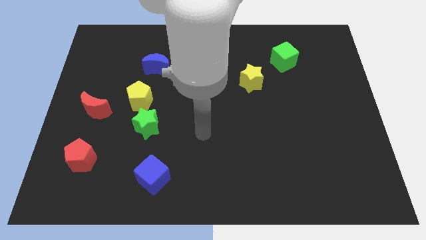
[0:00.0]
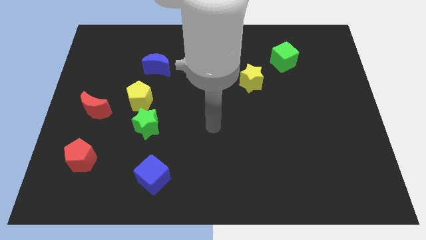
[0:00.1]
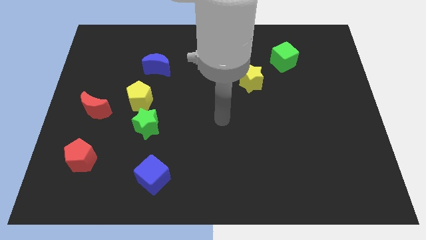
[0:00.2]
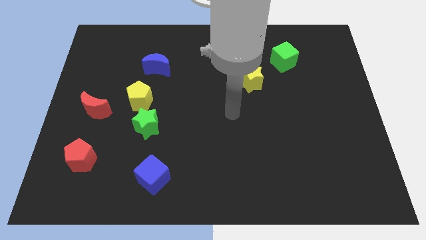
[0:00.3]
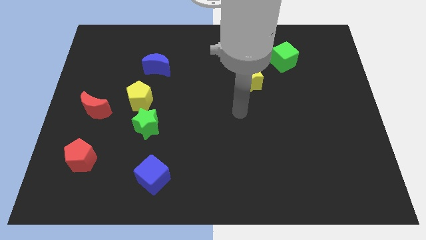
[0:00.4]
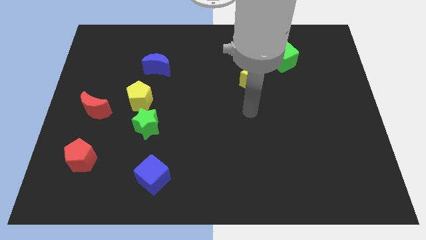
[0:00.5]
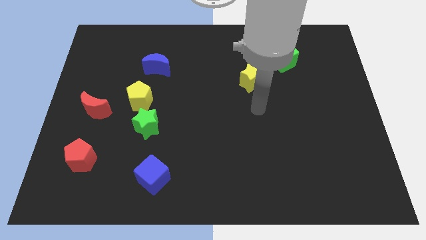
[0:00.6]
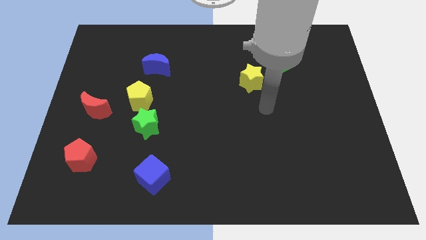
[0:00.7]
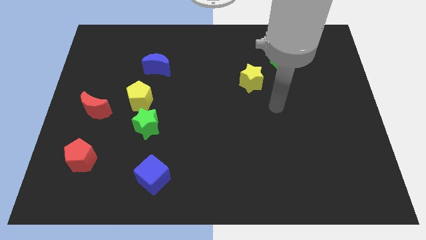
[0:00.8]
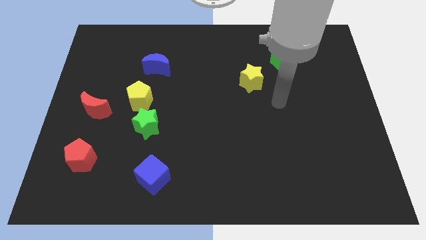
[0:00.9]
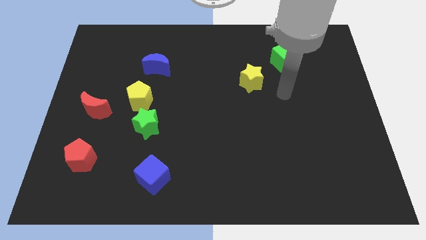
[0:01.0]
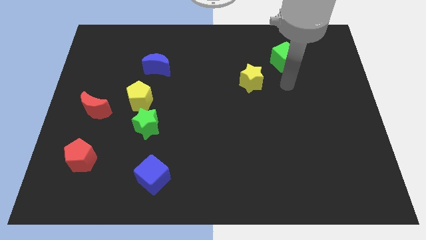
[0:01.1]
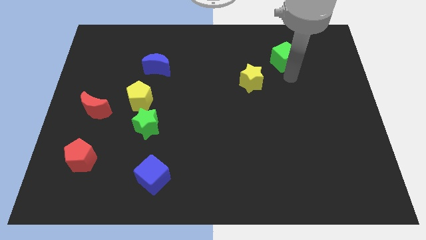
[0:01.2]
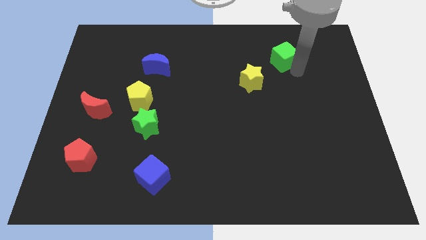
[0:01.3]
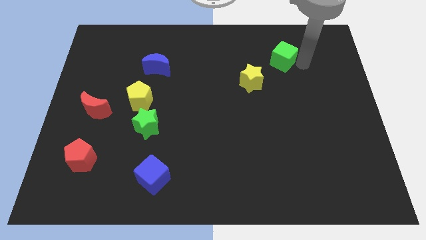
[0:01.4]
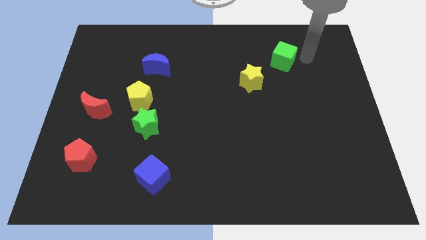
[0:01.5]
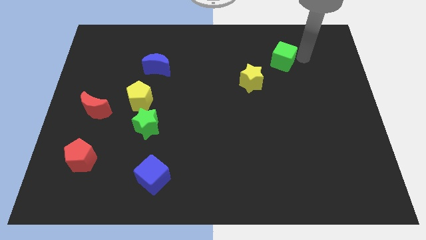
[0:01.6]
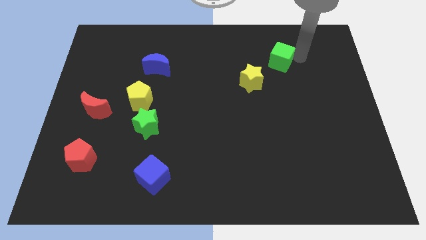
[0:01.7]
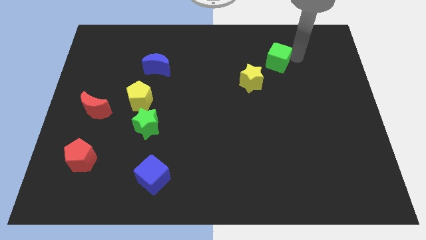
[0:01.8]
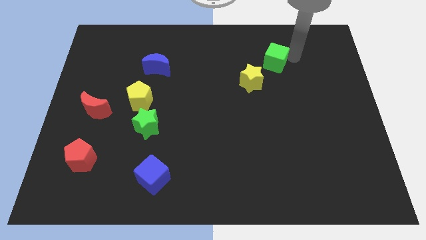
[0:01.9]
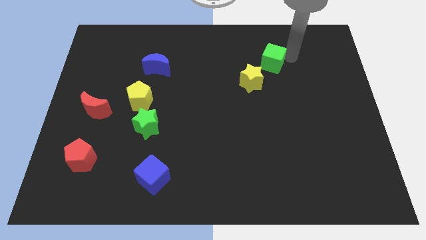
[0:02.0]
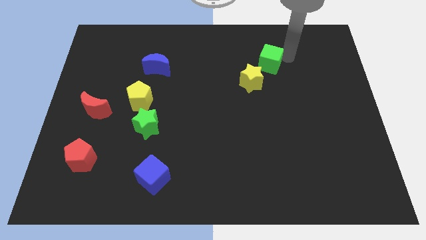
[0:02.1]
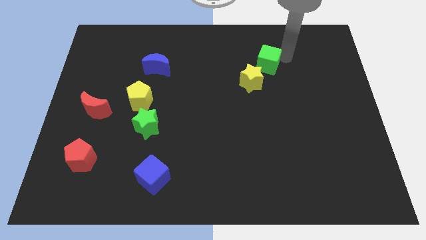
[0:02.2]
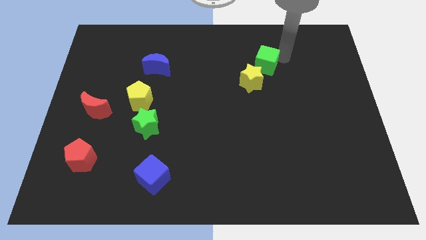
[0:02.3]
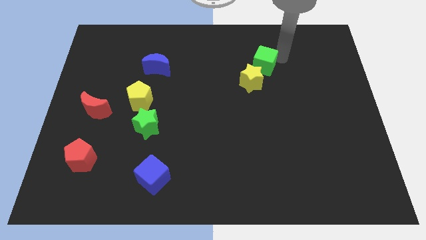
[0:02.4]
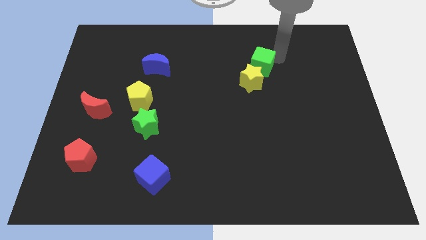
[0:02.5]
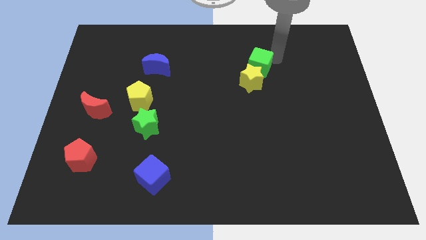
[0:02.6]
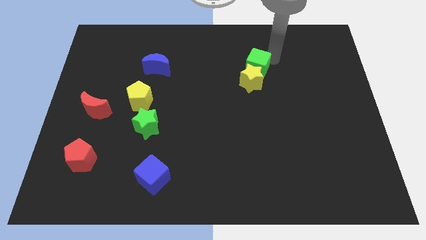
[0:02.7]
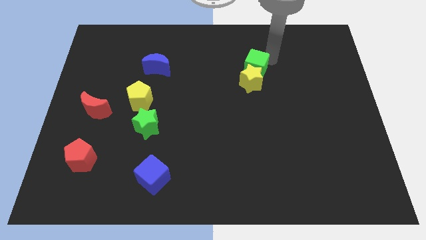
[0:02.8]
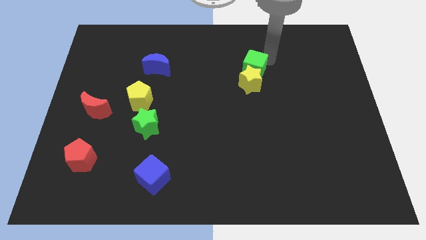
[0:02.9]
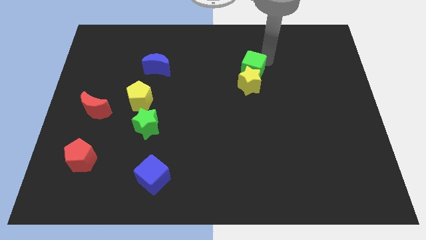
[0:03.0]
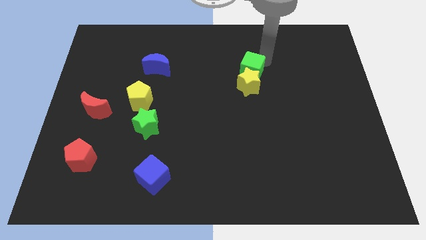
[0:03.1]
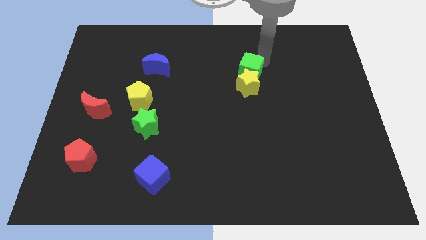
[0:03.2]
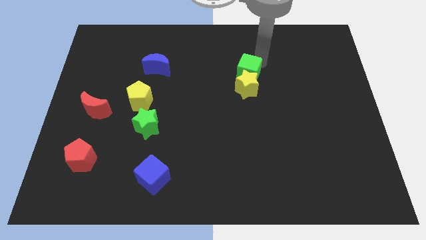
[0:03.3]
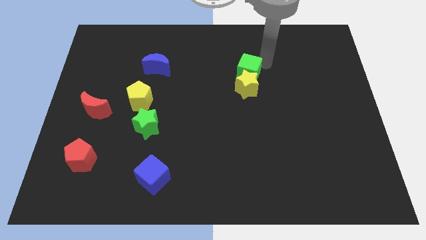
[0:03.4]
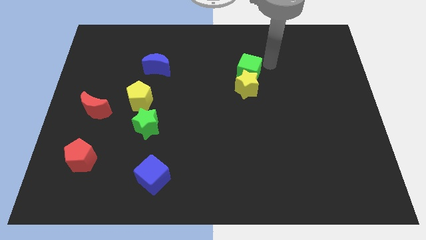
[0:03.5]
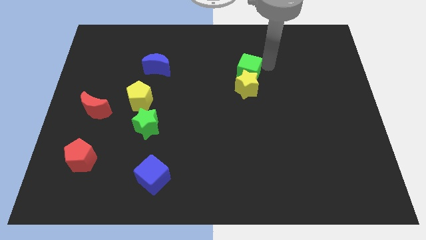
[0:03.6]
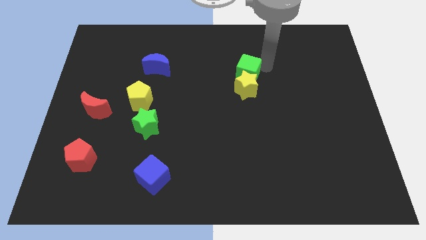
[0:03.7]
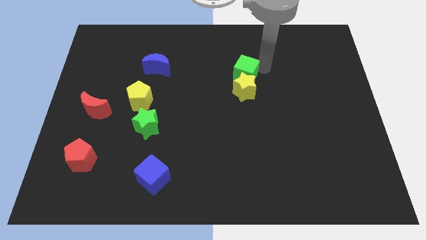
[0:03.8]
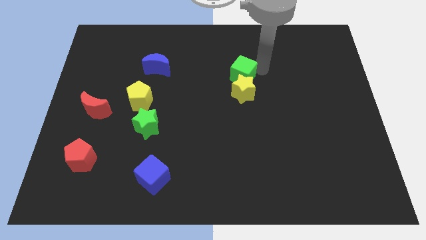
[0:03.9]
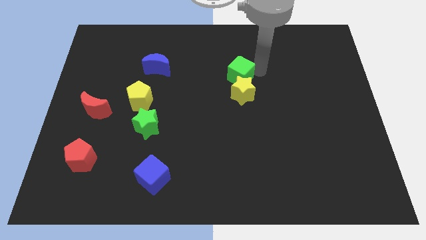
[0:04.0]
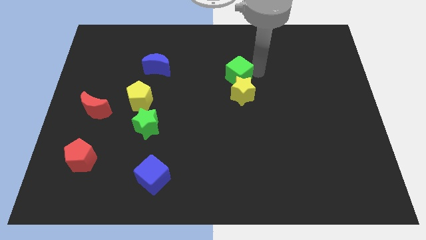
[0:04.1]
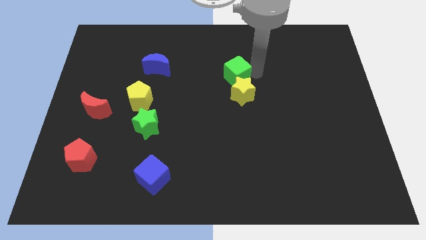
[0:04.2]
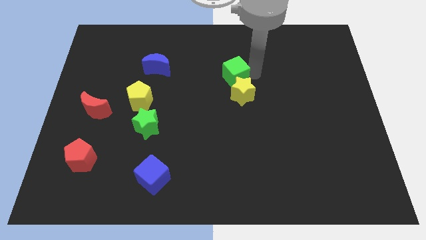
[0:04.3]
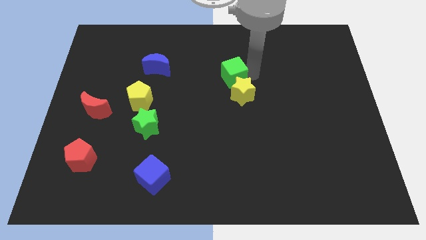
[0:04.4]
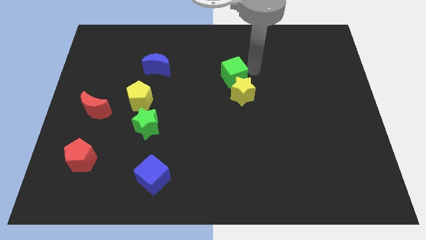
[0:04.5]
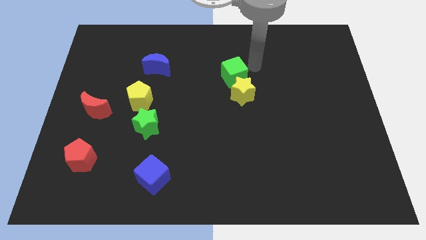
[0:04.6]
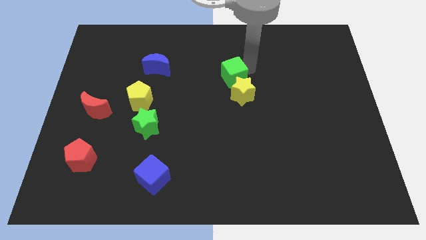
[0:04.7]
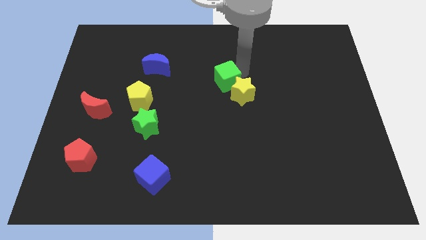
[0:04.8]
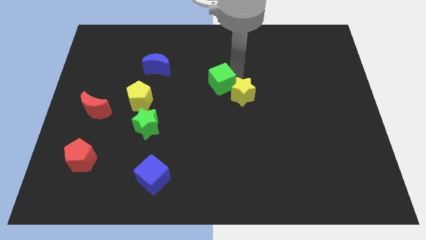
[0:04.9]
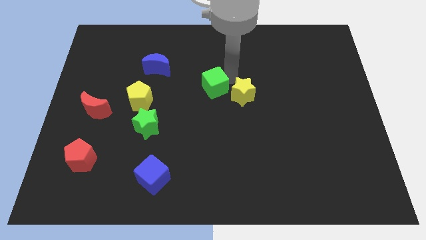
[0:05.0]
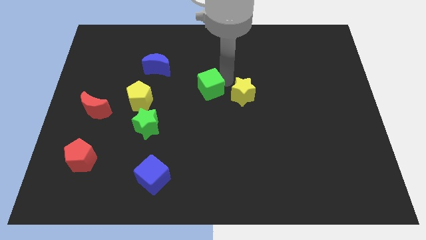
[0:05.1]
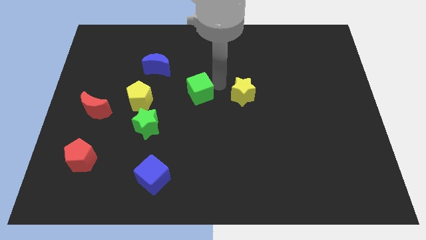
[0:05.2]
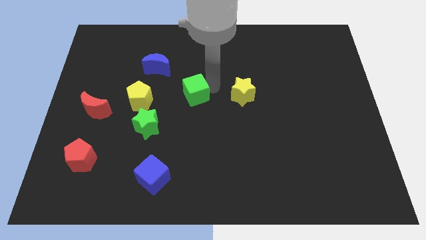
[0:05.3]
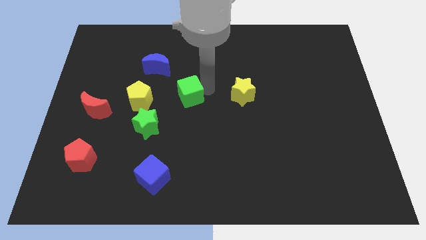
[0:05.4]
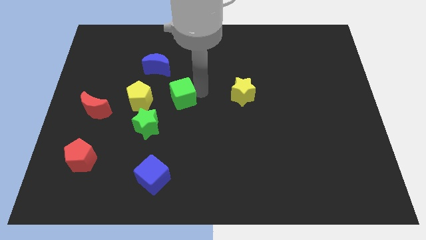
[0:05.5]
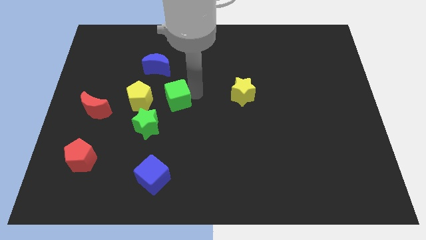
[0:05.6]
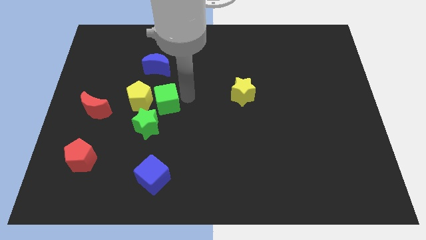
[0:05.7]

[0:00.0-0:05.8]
slide the green cube to the yellow pentagon

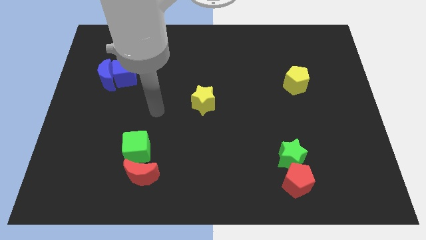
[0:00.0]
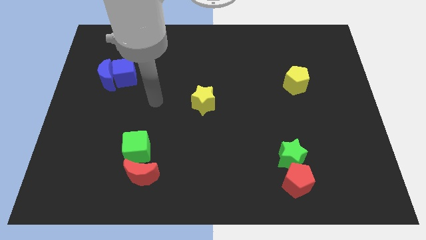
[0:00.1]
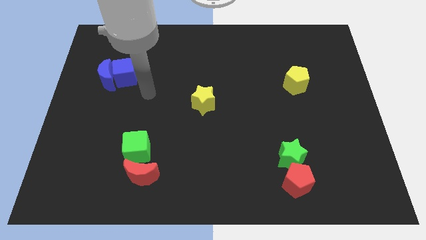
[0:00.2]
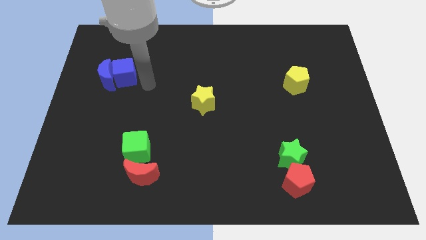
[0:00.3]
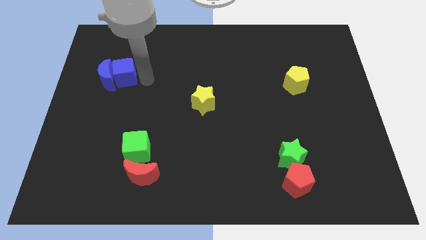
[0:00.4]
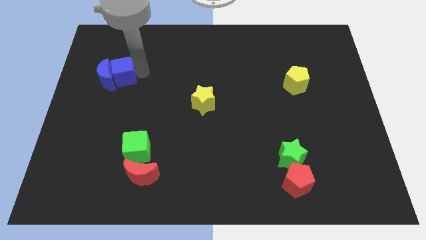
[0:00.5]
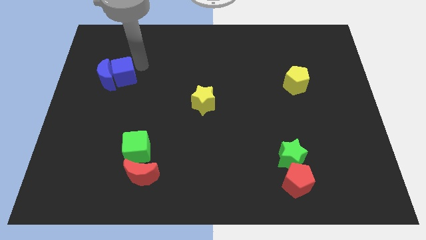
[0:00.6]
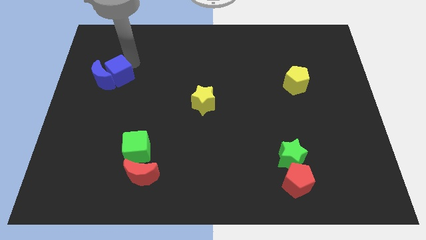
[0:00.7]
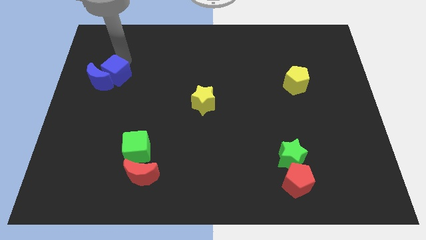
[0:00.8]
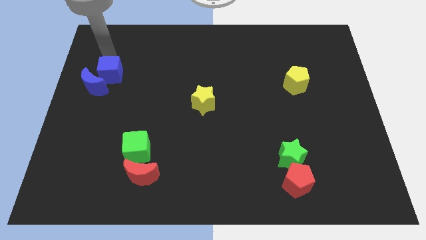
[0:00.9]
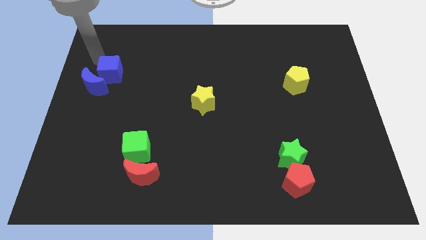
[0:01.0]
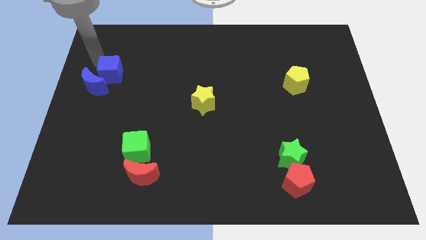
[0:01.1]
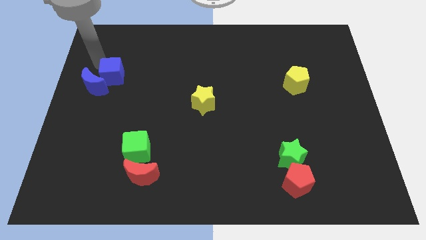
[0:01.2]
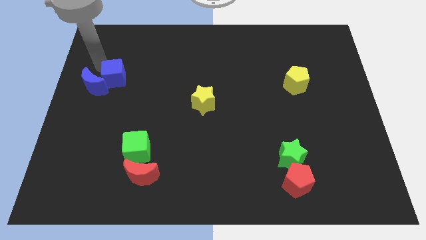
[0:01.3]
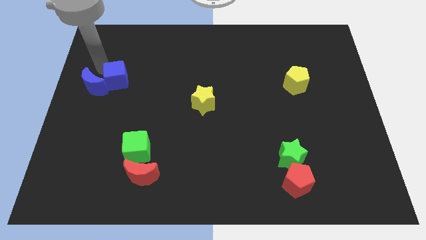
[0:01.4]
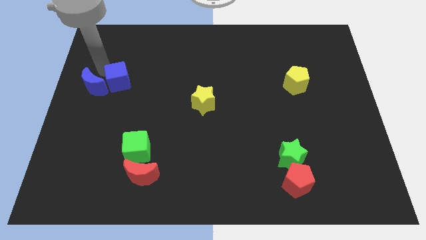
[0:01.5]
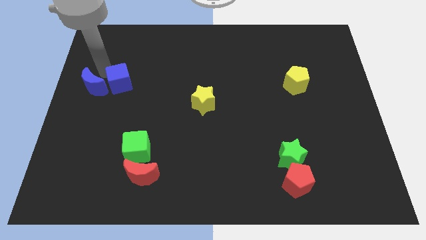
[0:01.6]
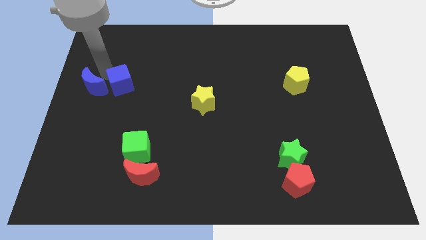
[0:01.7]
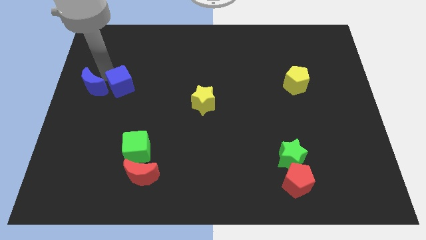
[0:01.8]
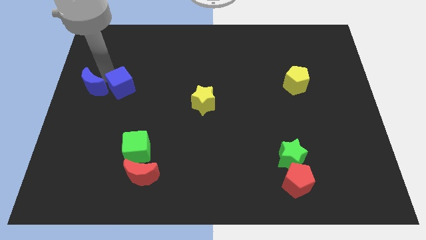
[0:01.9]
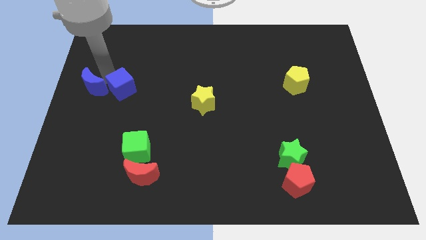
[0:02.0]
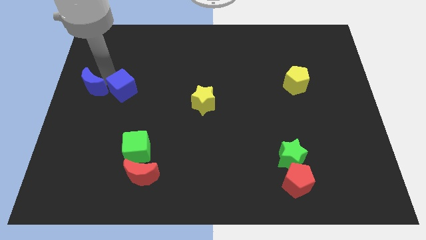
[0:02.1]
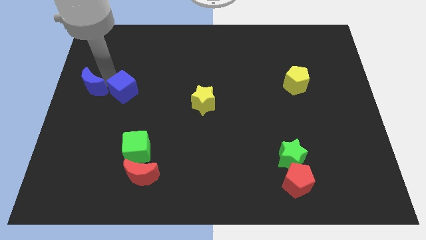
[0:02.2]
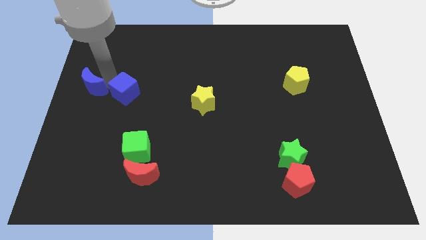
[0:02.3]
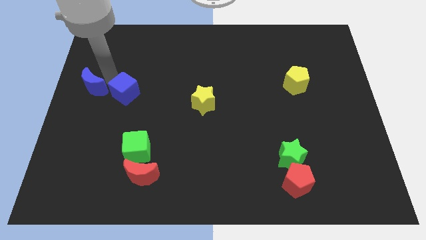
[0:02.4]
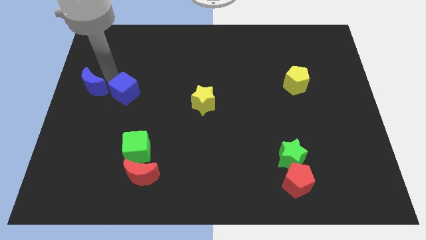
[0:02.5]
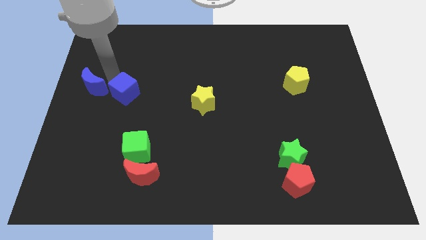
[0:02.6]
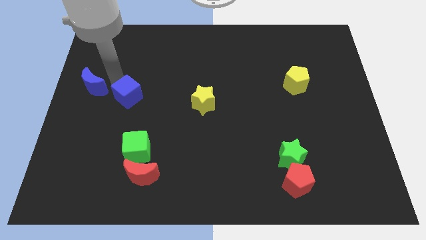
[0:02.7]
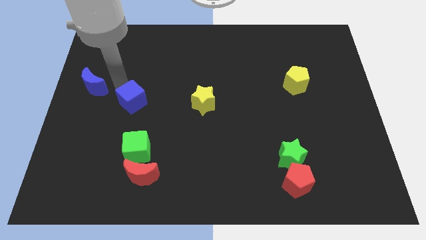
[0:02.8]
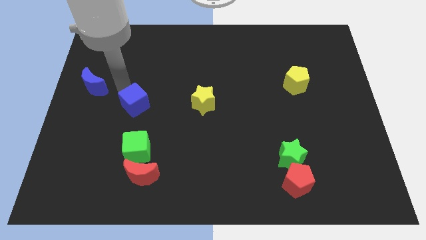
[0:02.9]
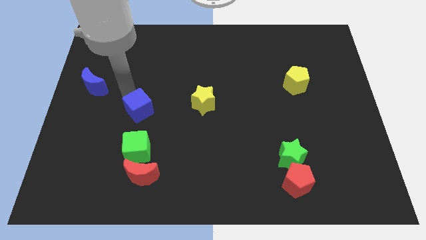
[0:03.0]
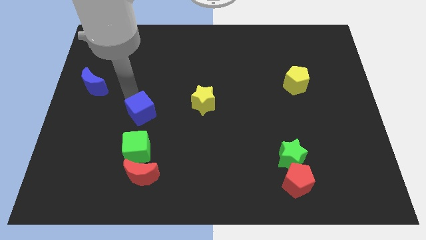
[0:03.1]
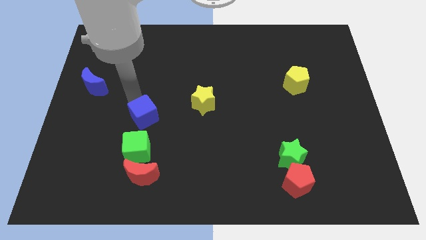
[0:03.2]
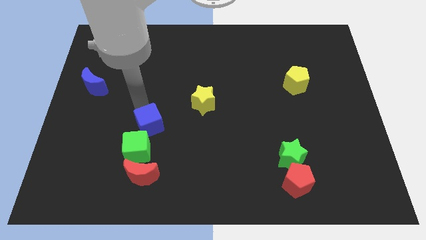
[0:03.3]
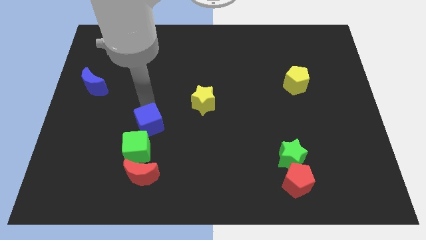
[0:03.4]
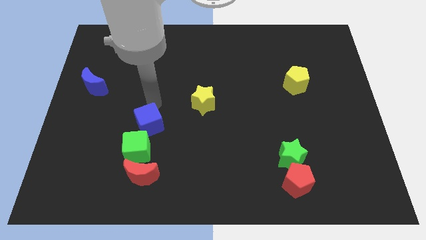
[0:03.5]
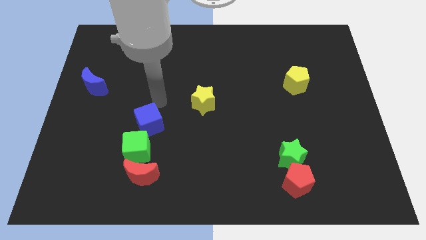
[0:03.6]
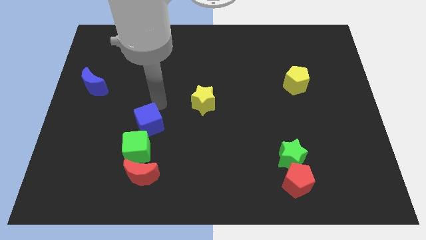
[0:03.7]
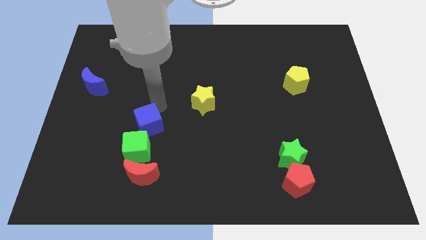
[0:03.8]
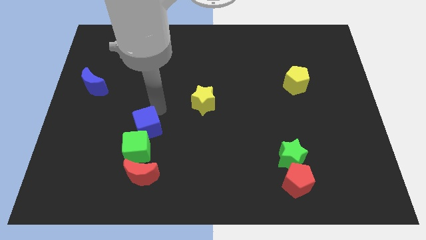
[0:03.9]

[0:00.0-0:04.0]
slide the blue cube to the green cube
